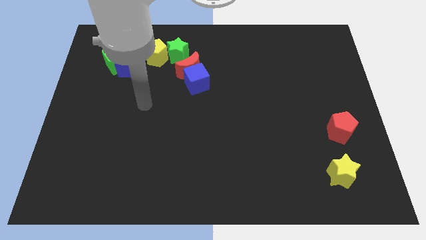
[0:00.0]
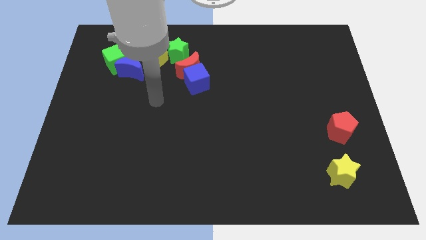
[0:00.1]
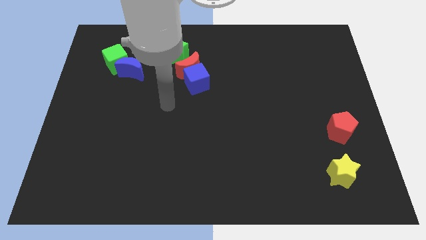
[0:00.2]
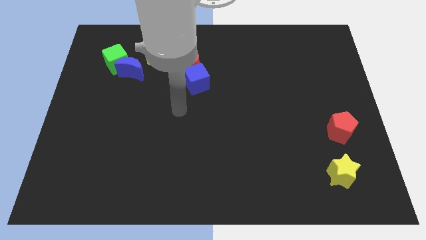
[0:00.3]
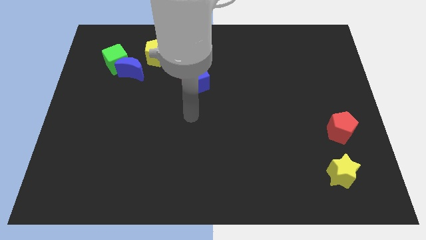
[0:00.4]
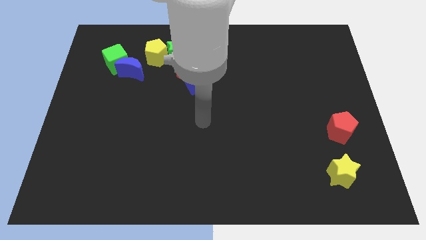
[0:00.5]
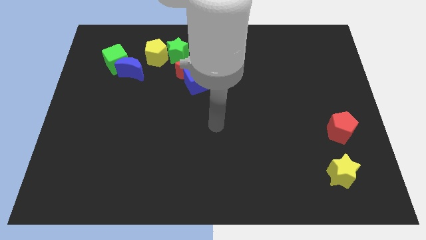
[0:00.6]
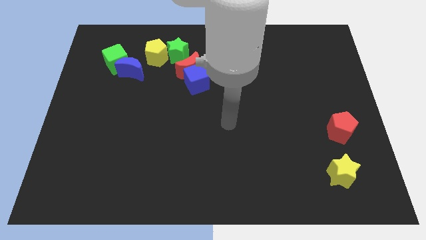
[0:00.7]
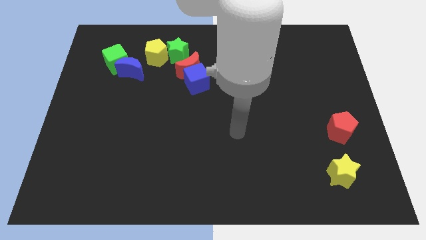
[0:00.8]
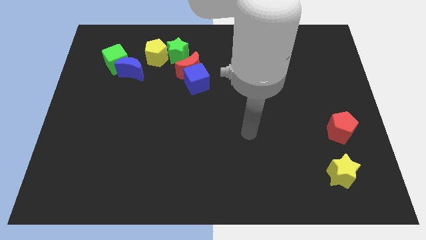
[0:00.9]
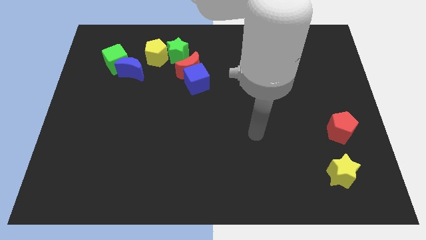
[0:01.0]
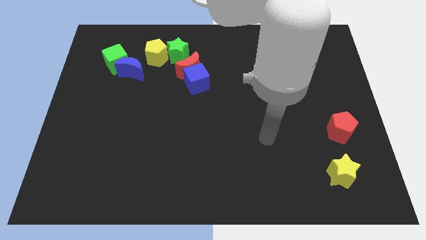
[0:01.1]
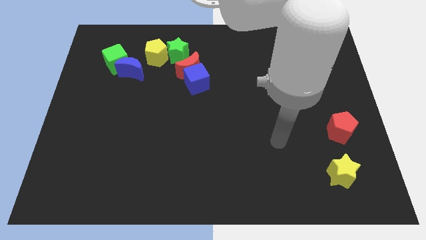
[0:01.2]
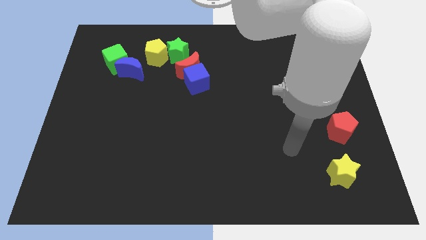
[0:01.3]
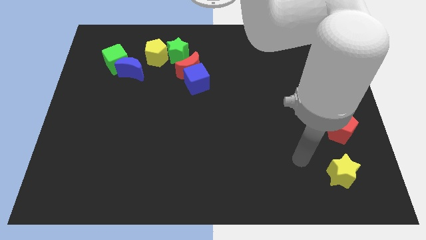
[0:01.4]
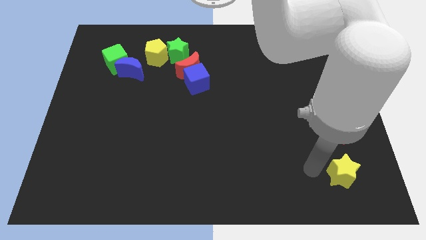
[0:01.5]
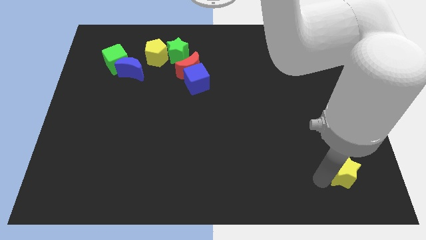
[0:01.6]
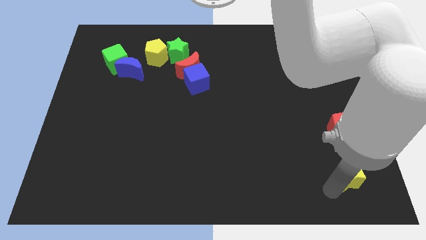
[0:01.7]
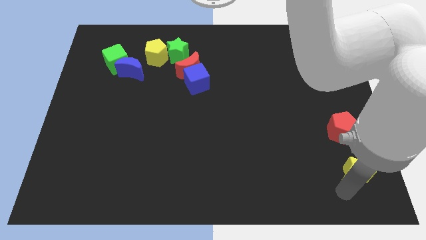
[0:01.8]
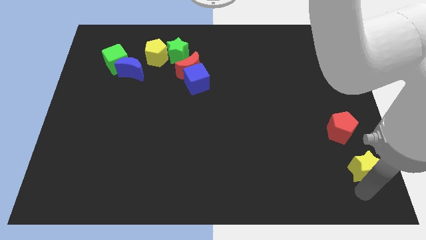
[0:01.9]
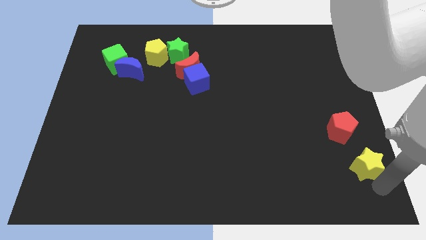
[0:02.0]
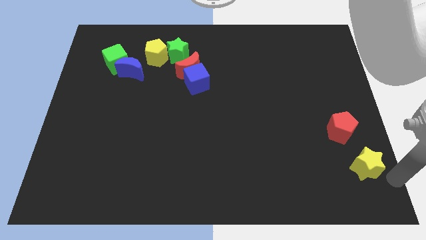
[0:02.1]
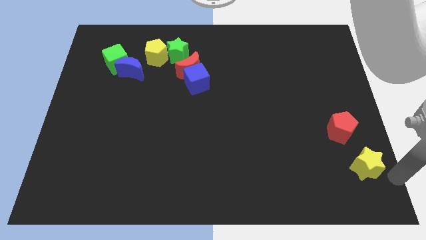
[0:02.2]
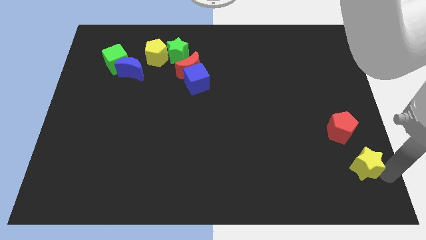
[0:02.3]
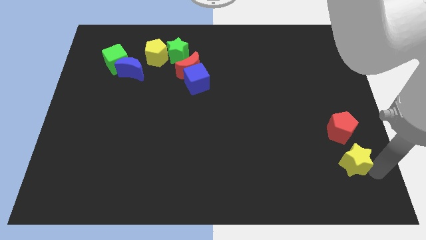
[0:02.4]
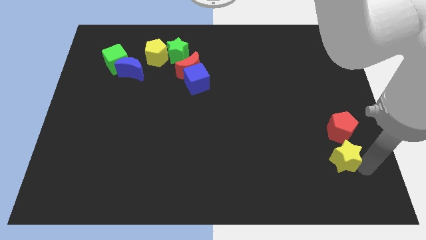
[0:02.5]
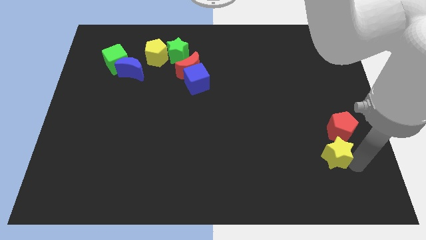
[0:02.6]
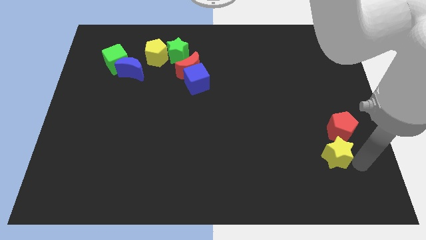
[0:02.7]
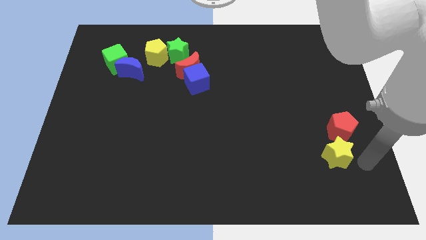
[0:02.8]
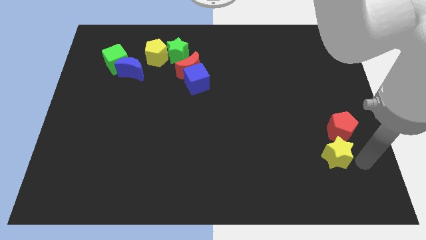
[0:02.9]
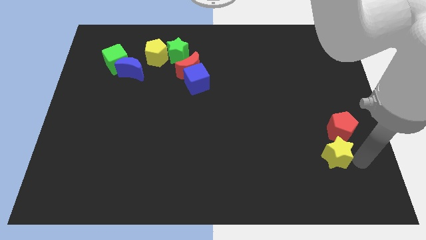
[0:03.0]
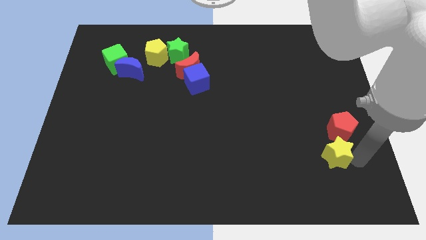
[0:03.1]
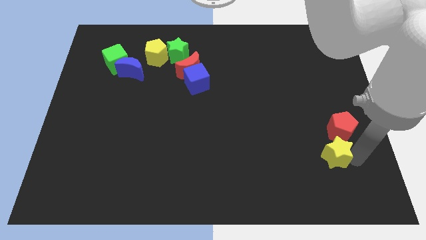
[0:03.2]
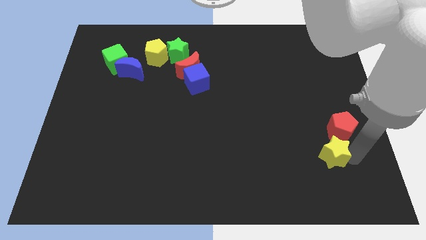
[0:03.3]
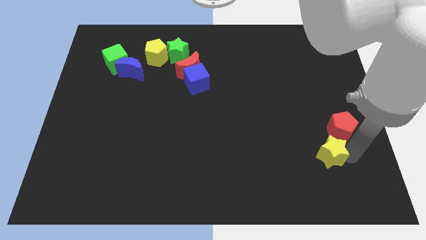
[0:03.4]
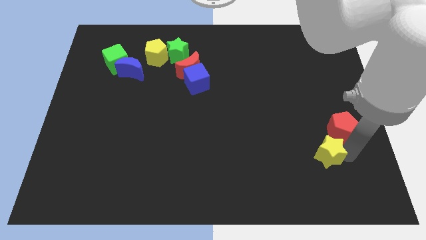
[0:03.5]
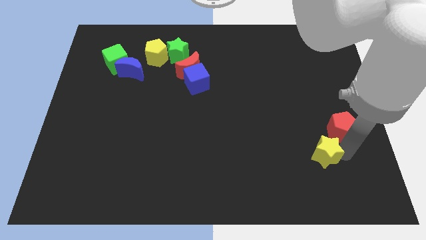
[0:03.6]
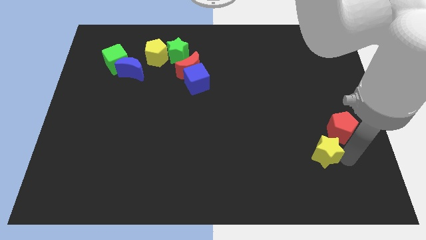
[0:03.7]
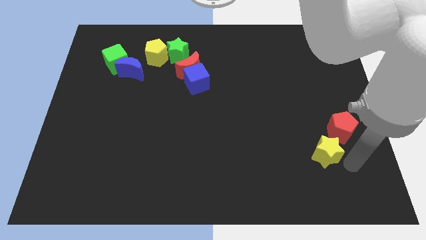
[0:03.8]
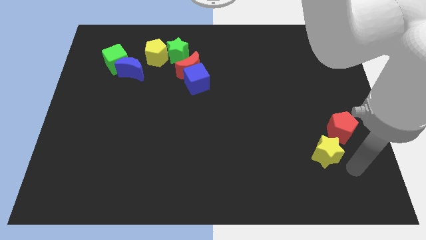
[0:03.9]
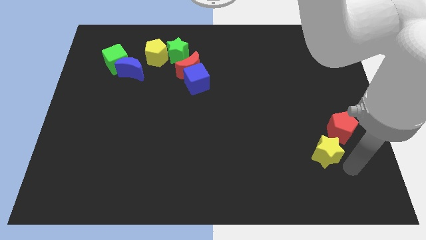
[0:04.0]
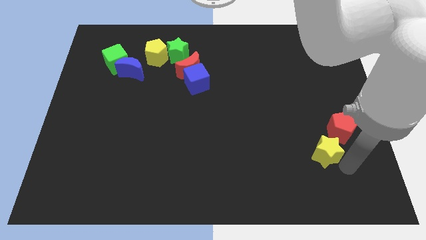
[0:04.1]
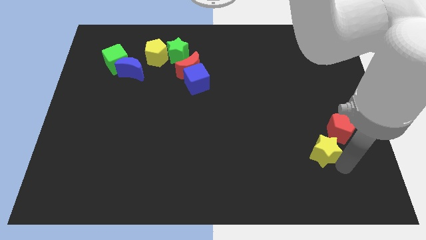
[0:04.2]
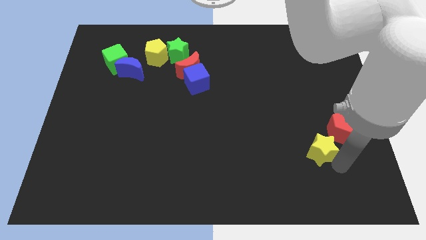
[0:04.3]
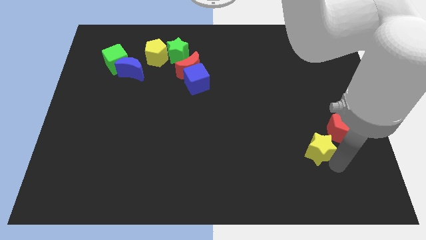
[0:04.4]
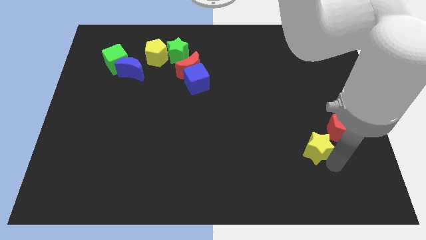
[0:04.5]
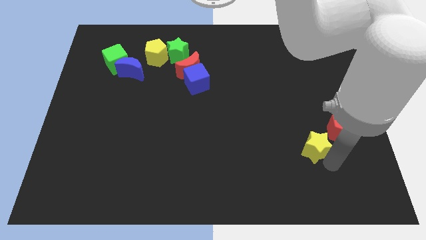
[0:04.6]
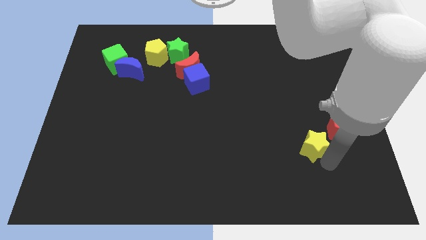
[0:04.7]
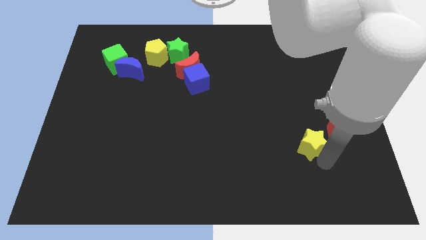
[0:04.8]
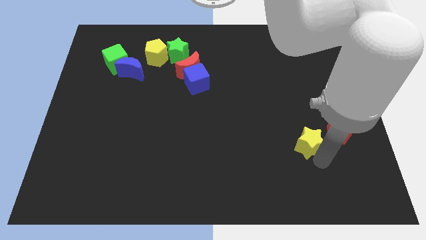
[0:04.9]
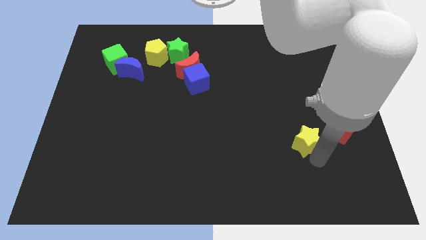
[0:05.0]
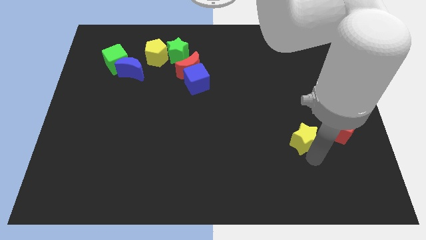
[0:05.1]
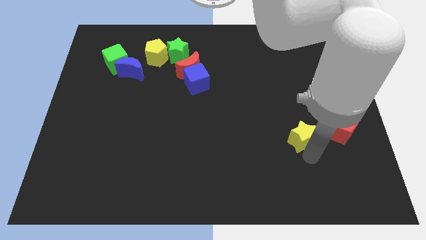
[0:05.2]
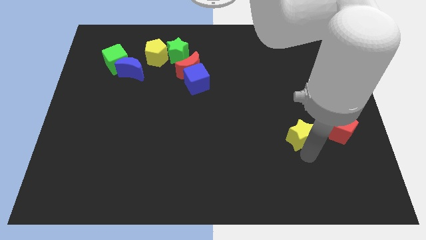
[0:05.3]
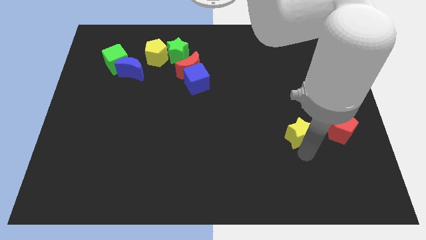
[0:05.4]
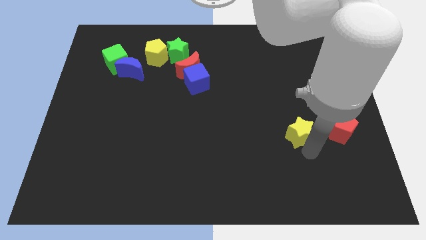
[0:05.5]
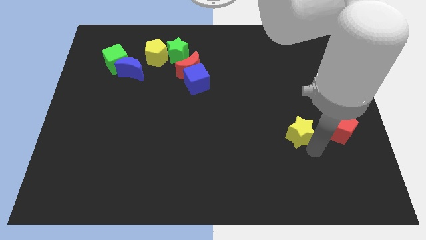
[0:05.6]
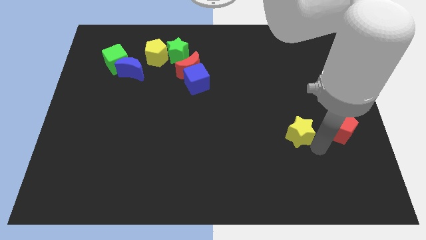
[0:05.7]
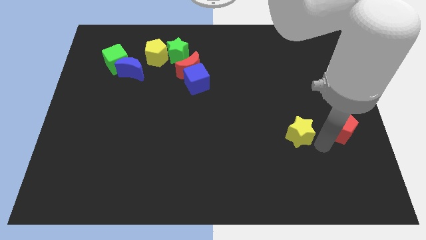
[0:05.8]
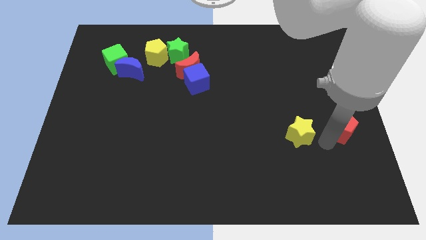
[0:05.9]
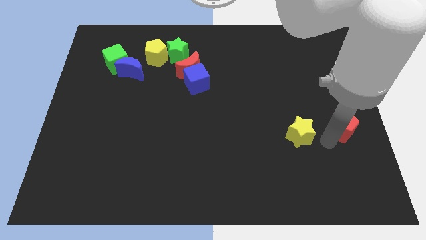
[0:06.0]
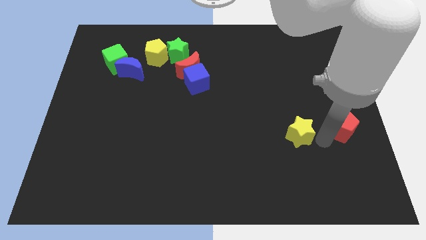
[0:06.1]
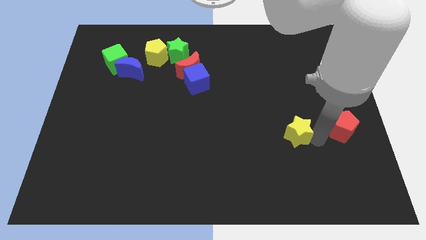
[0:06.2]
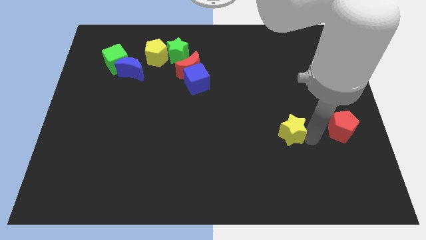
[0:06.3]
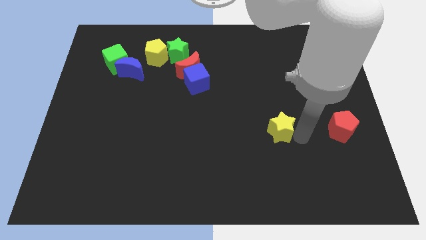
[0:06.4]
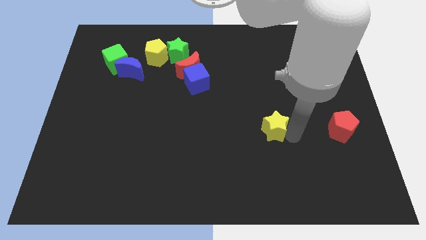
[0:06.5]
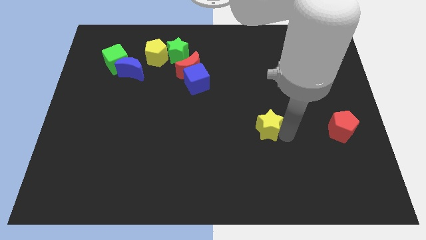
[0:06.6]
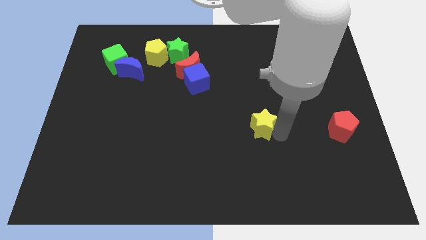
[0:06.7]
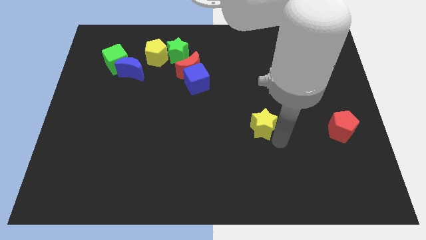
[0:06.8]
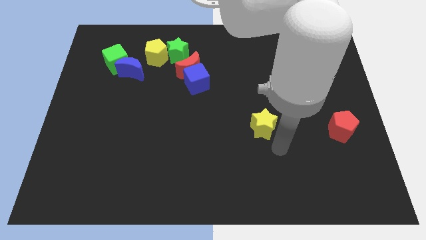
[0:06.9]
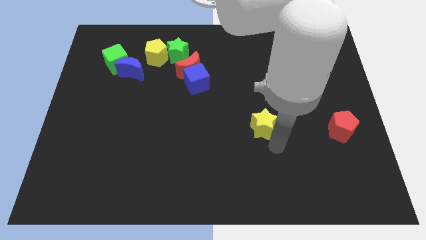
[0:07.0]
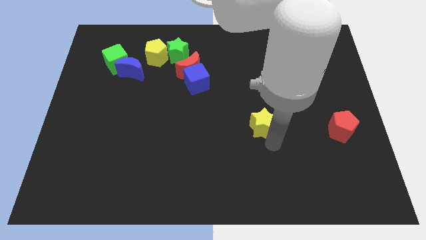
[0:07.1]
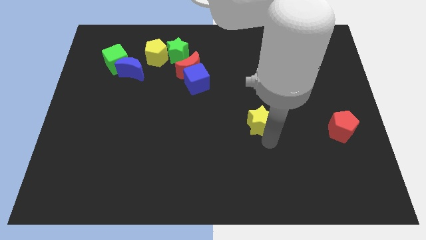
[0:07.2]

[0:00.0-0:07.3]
push the yellow star upwards and left

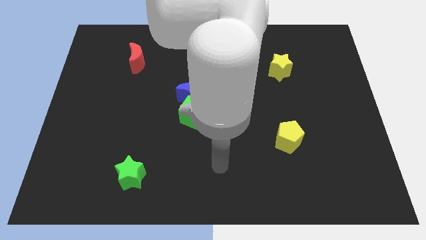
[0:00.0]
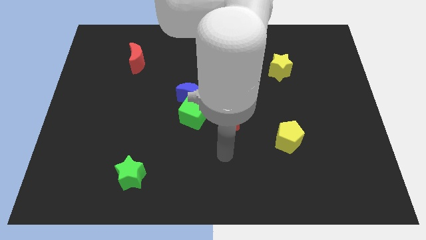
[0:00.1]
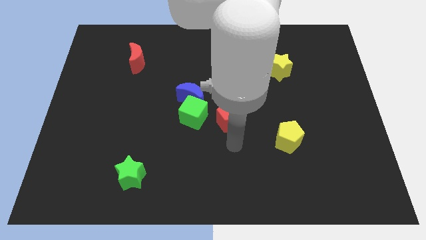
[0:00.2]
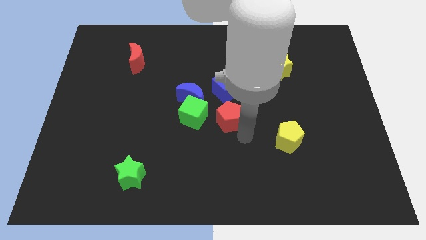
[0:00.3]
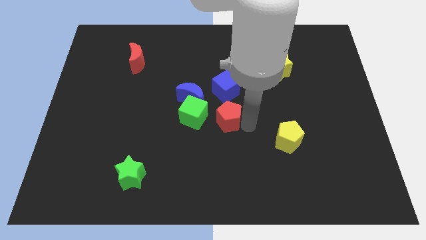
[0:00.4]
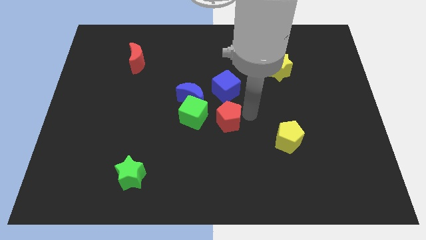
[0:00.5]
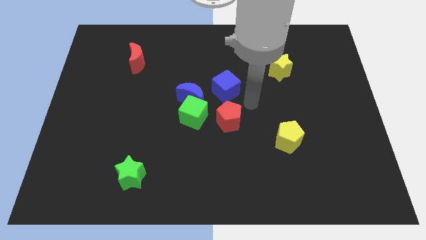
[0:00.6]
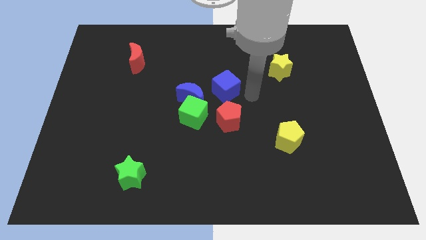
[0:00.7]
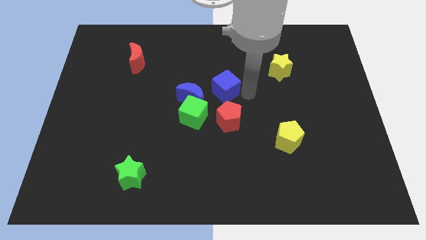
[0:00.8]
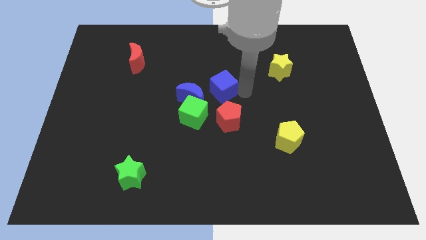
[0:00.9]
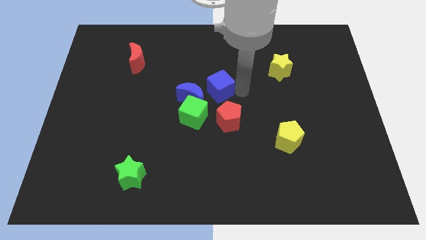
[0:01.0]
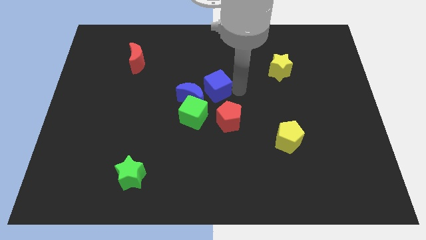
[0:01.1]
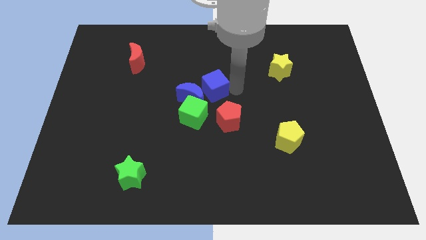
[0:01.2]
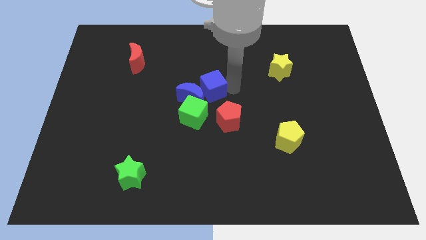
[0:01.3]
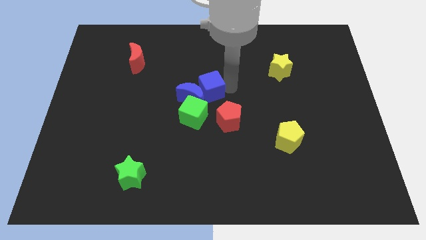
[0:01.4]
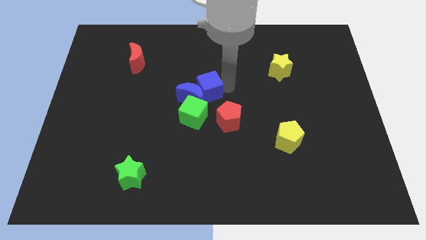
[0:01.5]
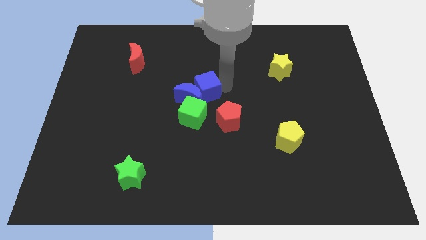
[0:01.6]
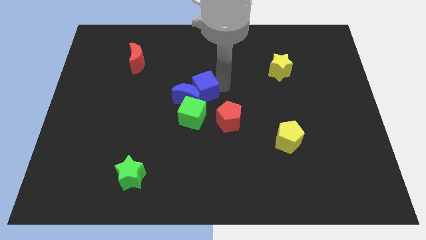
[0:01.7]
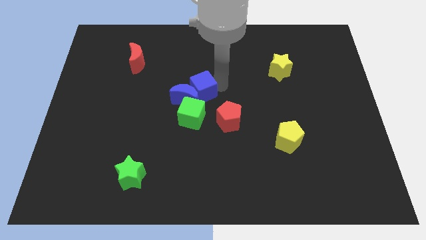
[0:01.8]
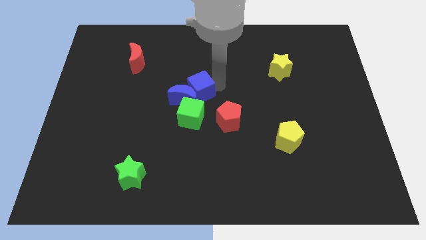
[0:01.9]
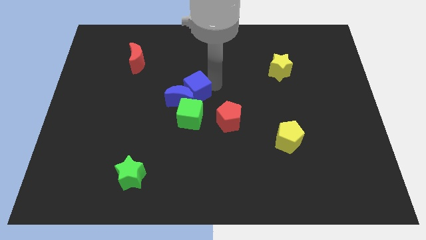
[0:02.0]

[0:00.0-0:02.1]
slide the blue cube slightly to the left
